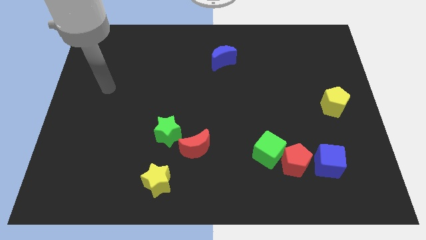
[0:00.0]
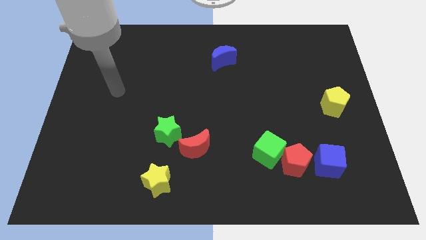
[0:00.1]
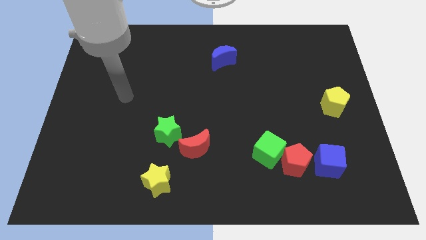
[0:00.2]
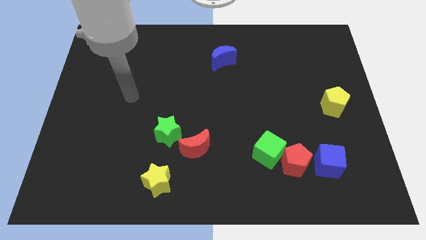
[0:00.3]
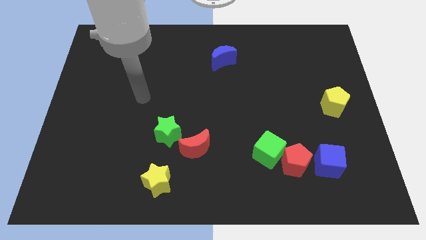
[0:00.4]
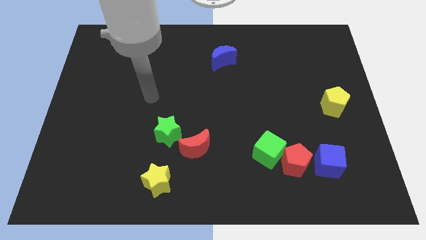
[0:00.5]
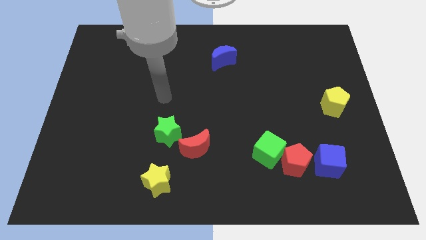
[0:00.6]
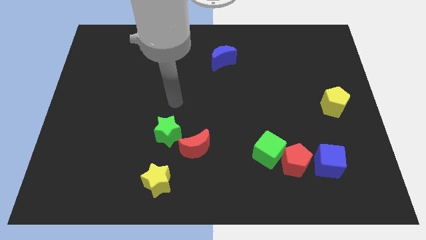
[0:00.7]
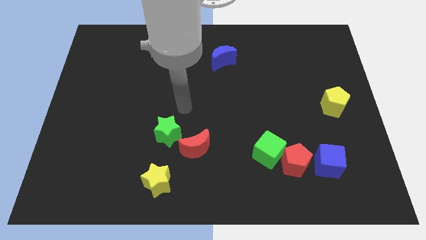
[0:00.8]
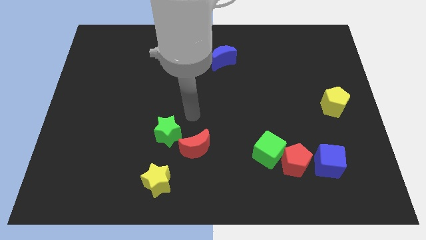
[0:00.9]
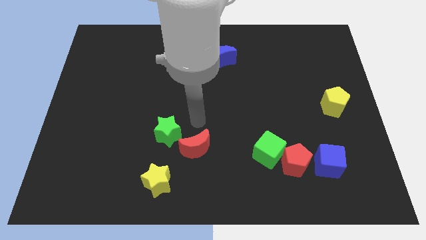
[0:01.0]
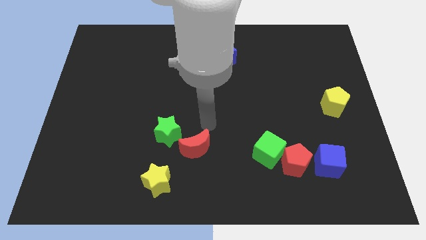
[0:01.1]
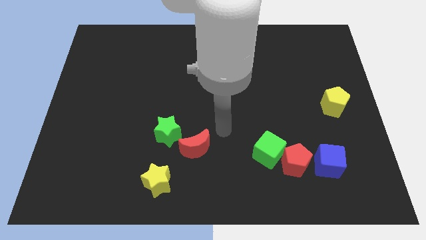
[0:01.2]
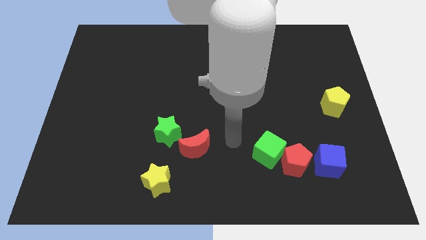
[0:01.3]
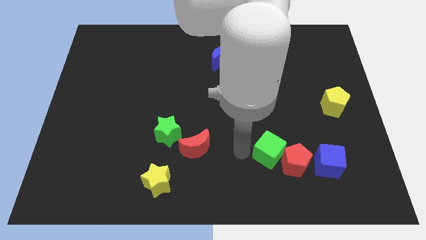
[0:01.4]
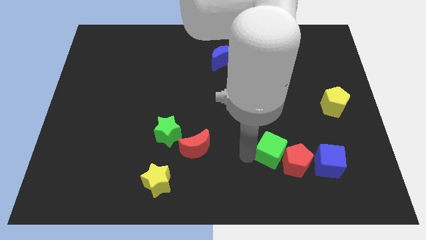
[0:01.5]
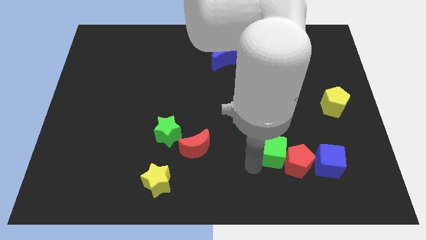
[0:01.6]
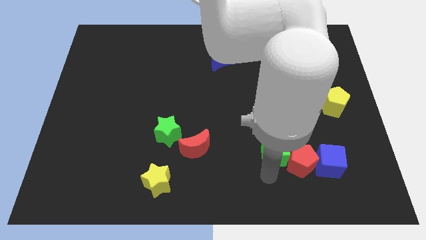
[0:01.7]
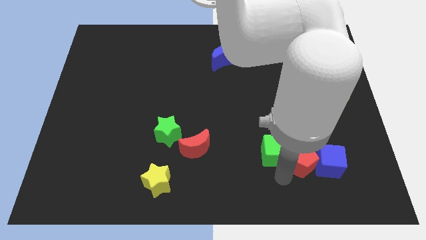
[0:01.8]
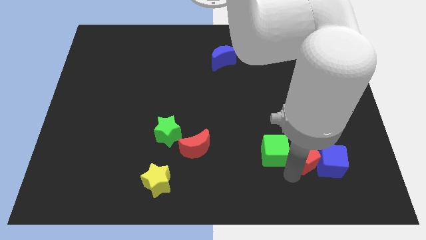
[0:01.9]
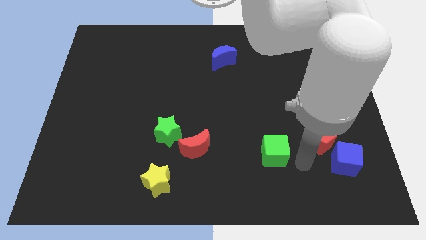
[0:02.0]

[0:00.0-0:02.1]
separate the green cube from the red pentagon

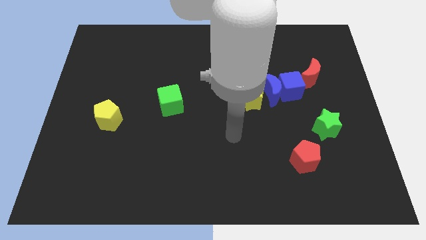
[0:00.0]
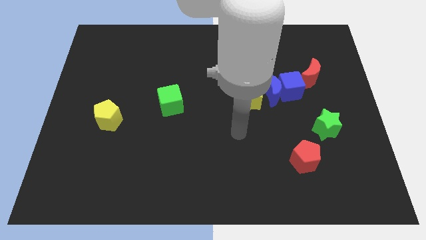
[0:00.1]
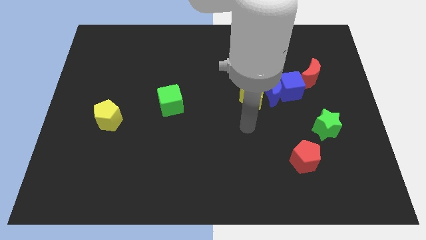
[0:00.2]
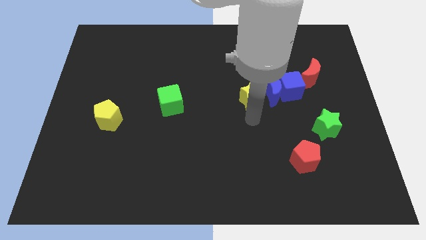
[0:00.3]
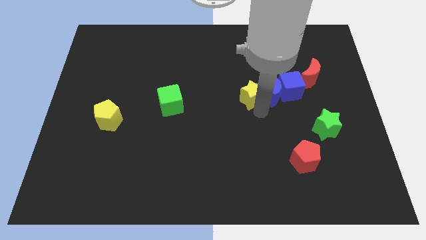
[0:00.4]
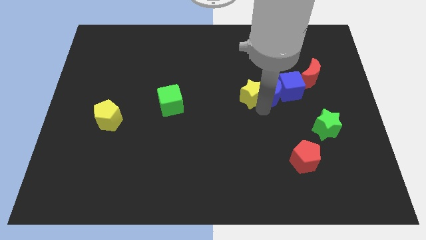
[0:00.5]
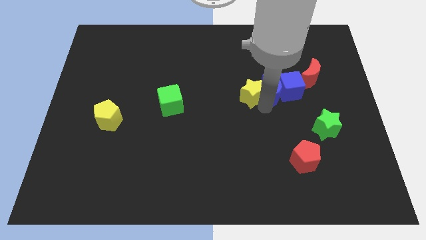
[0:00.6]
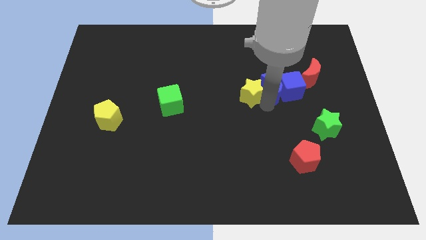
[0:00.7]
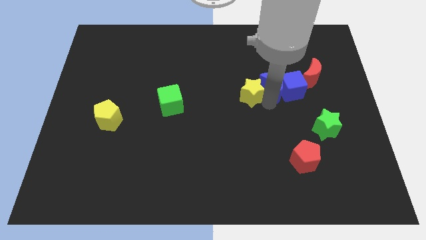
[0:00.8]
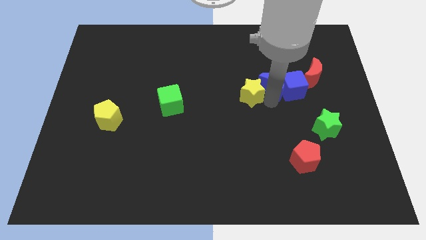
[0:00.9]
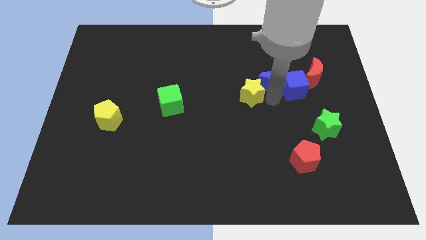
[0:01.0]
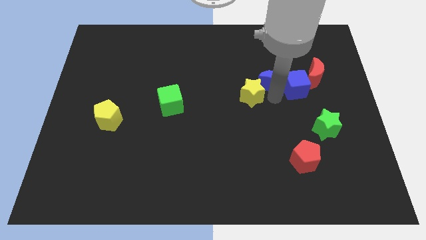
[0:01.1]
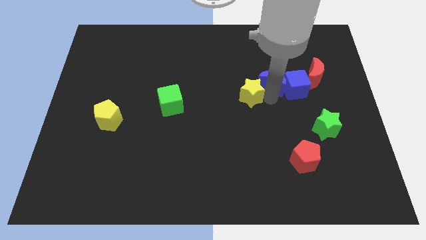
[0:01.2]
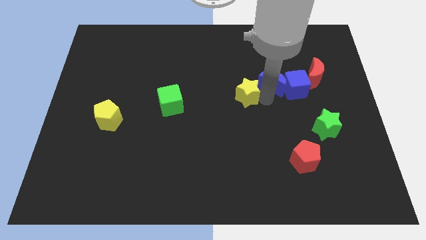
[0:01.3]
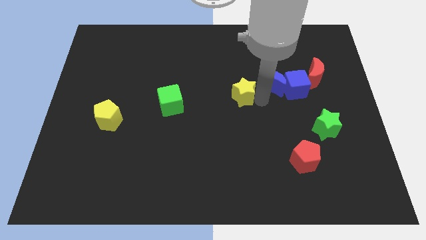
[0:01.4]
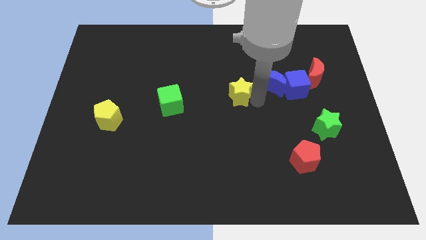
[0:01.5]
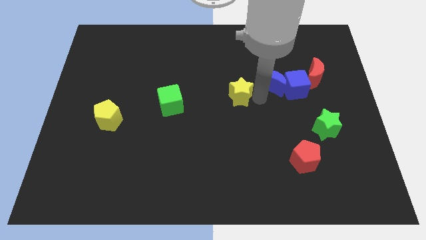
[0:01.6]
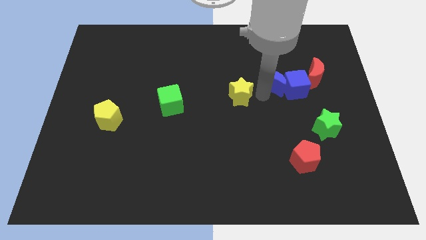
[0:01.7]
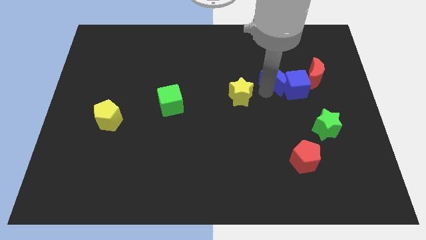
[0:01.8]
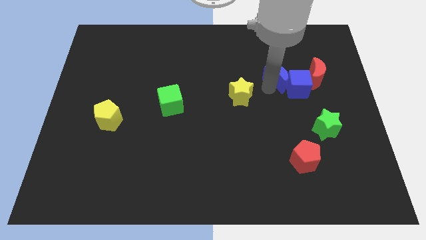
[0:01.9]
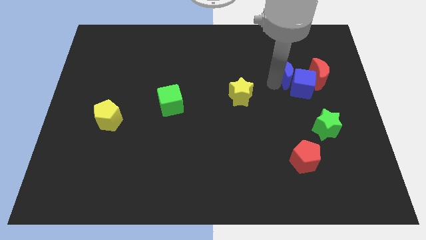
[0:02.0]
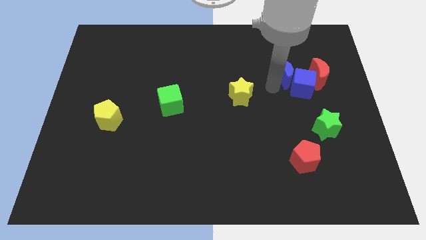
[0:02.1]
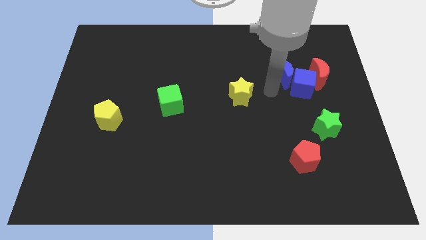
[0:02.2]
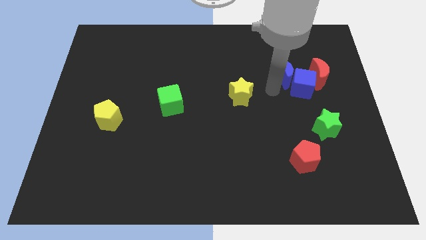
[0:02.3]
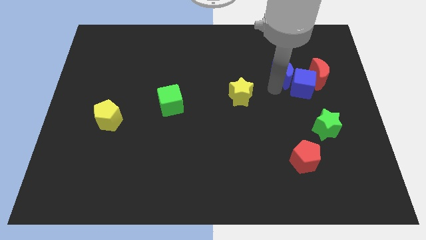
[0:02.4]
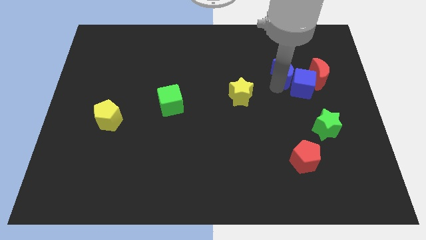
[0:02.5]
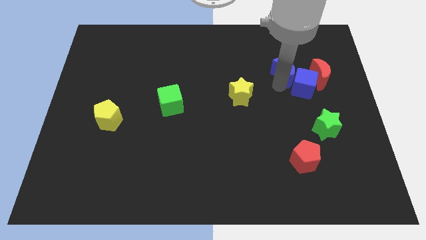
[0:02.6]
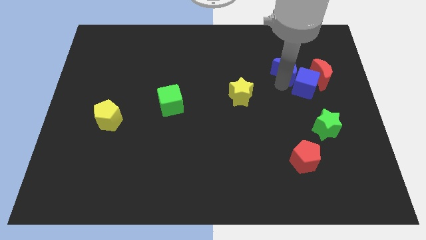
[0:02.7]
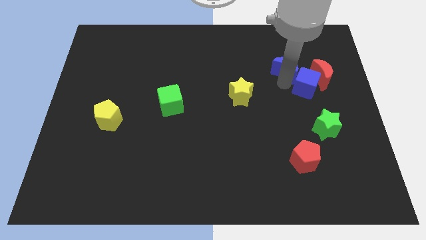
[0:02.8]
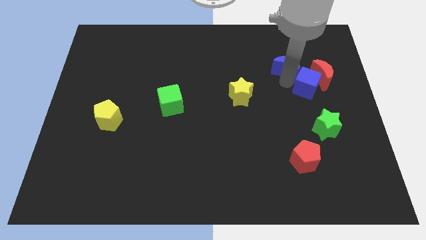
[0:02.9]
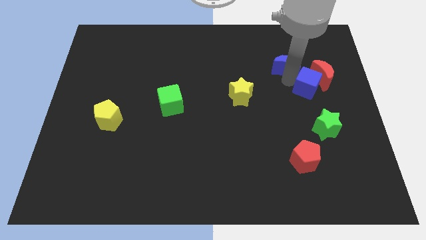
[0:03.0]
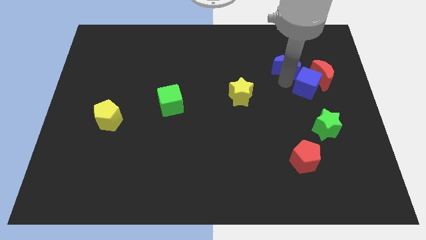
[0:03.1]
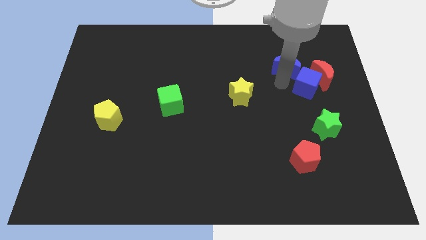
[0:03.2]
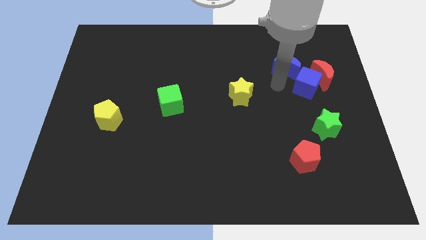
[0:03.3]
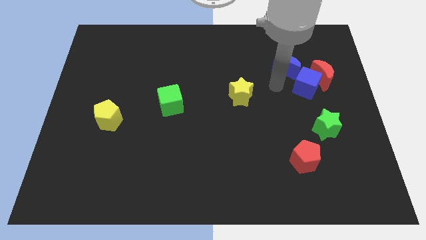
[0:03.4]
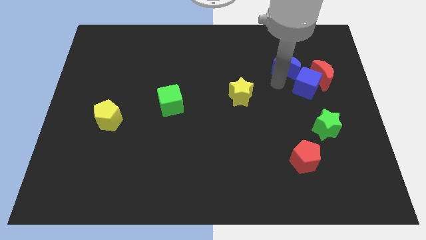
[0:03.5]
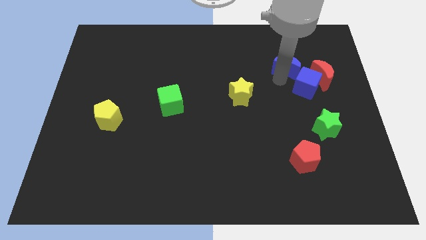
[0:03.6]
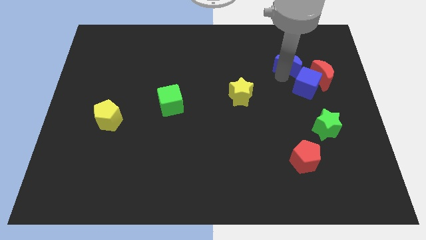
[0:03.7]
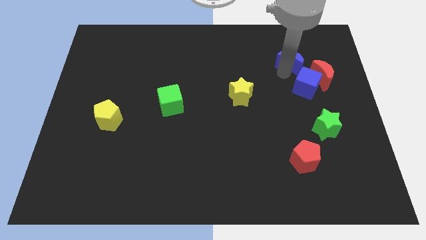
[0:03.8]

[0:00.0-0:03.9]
move the blue moon away from the blue cube and yellow star

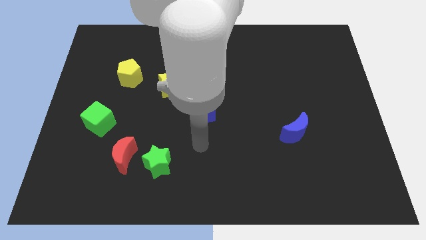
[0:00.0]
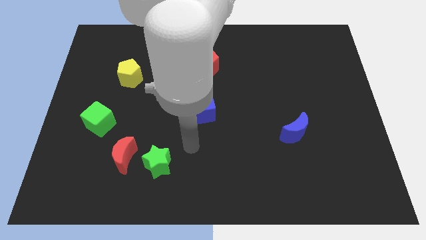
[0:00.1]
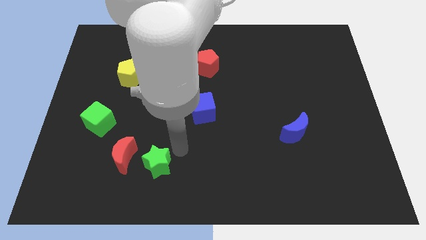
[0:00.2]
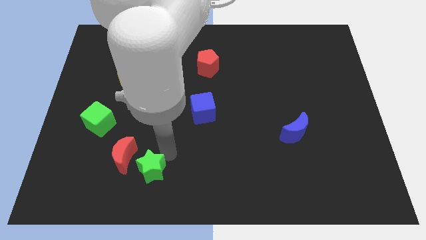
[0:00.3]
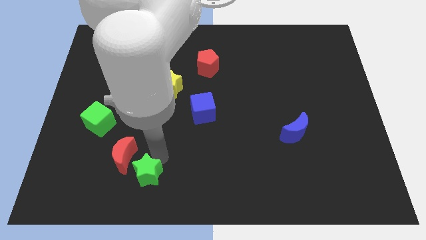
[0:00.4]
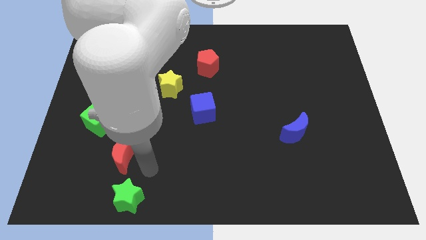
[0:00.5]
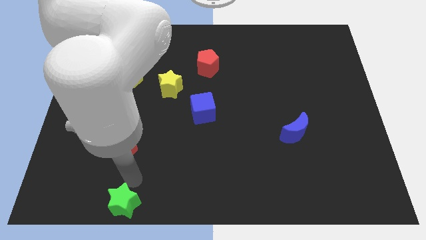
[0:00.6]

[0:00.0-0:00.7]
move the red moon away from the green star

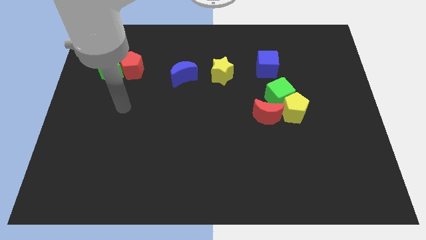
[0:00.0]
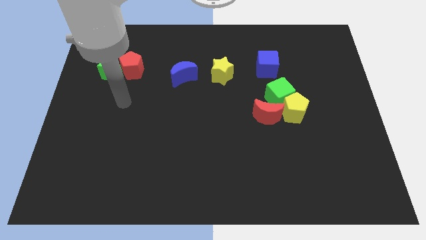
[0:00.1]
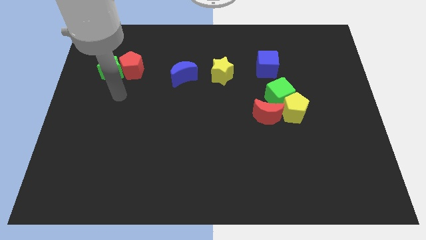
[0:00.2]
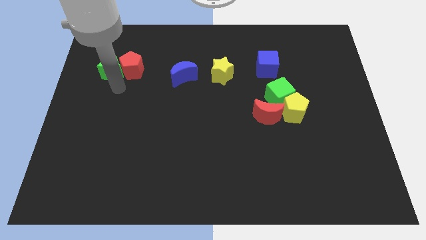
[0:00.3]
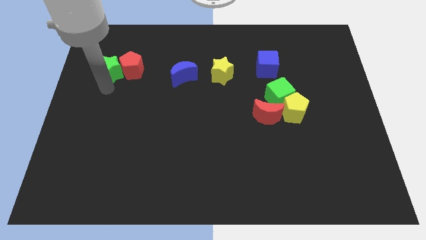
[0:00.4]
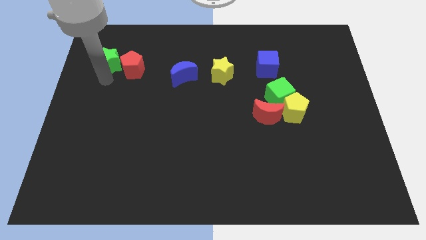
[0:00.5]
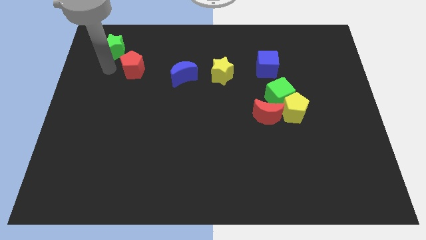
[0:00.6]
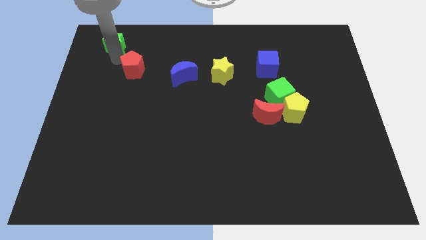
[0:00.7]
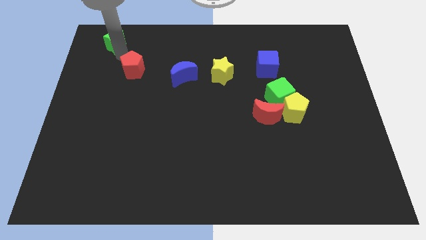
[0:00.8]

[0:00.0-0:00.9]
separate the red pentagon from the green star

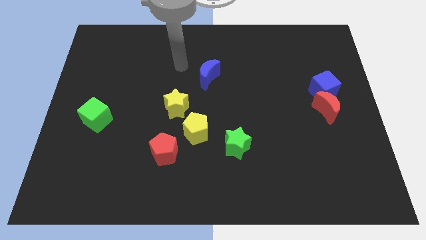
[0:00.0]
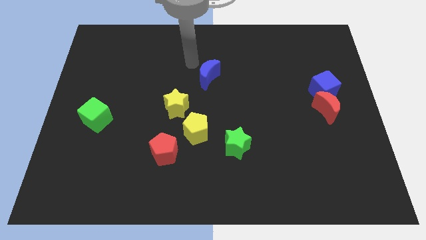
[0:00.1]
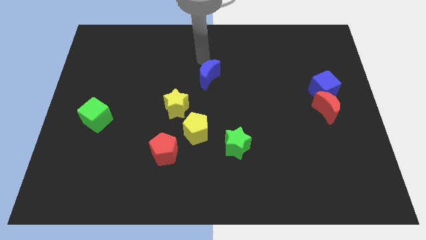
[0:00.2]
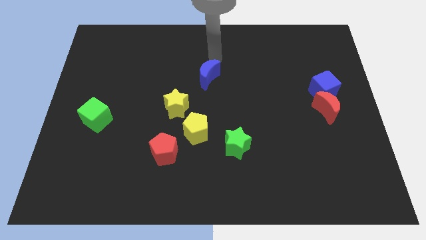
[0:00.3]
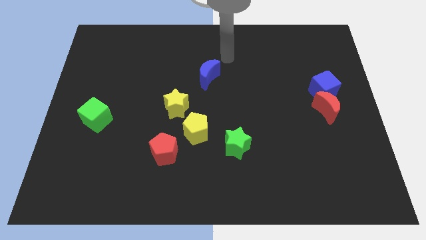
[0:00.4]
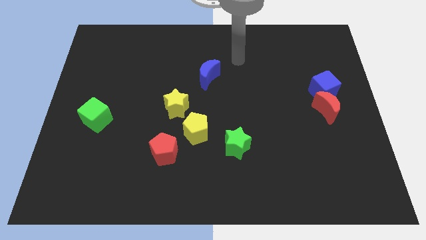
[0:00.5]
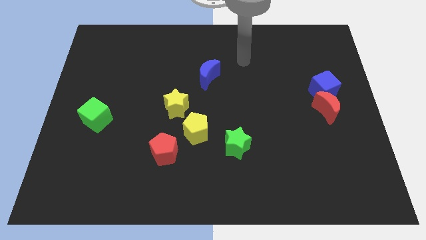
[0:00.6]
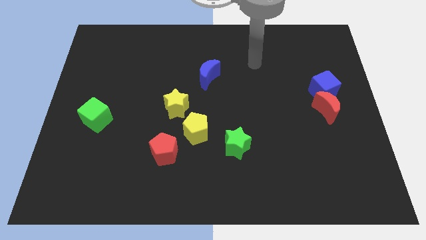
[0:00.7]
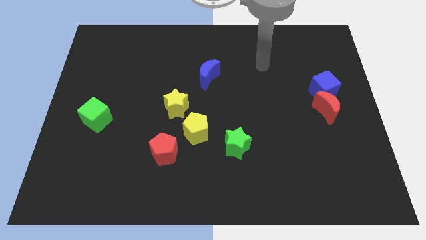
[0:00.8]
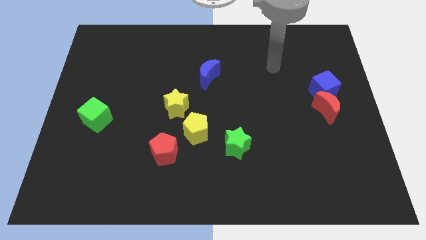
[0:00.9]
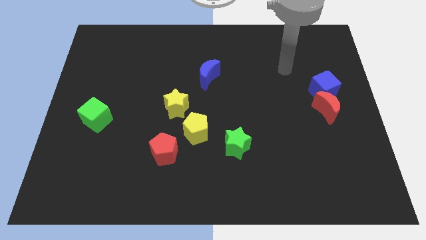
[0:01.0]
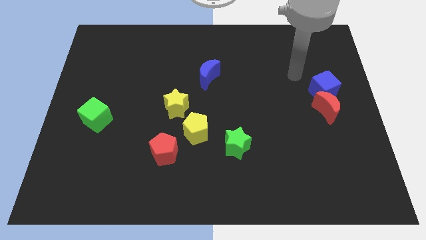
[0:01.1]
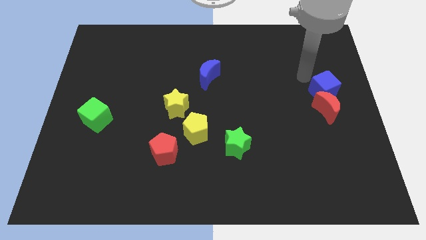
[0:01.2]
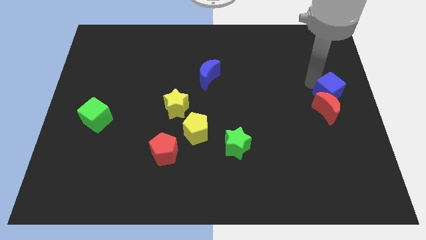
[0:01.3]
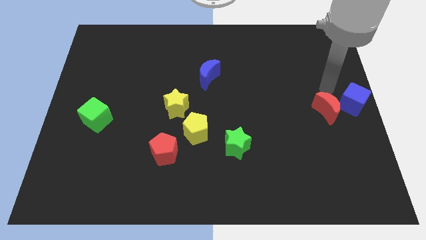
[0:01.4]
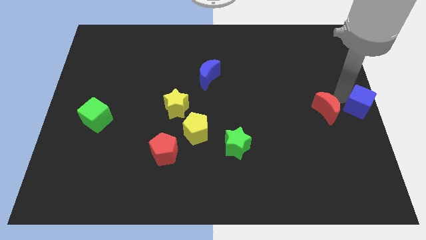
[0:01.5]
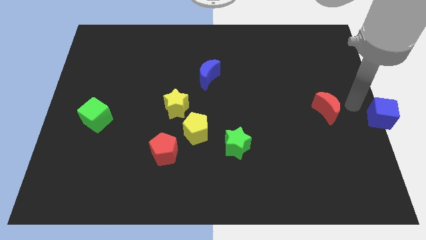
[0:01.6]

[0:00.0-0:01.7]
pull the red moon apart from the blue cube
